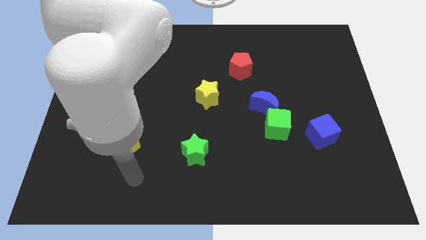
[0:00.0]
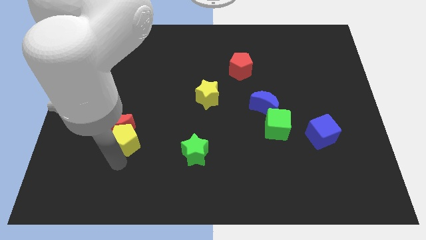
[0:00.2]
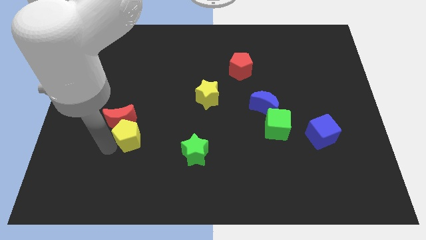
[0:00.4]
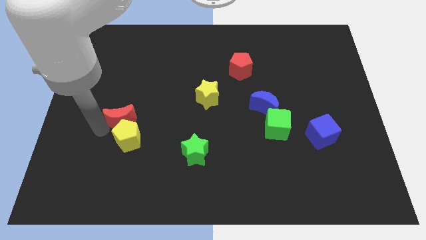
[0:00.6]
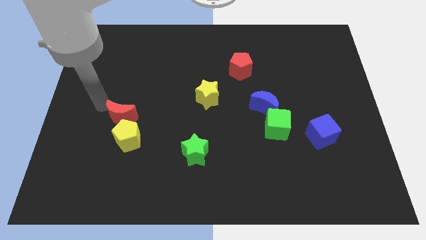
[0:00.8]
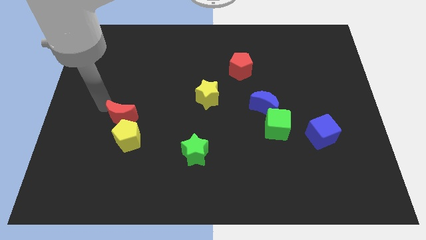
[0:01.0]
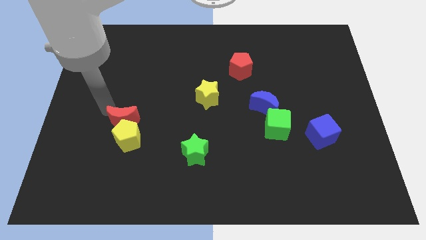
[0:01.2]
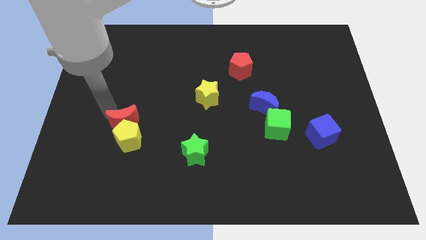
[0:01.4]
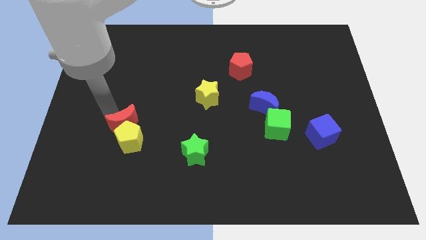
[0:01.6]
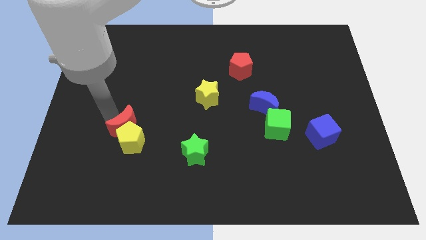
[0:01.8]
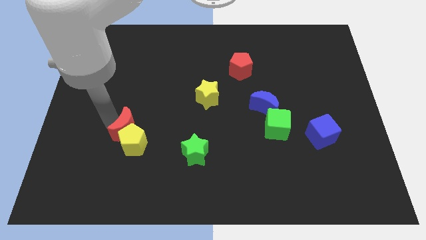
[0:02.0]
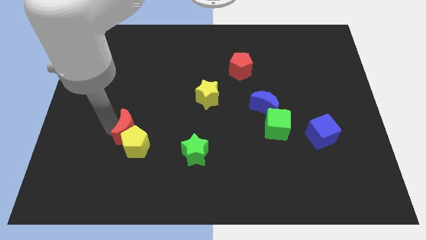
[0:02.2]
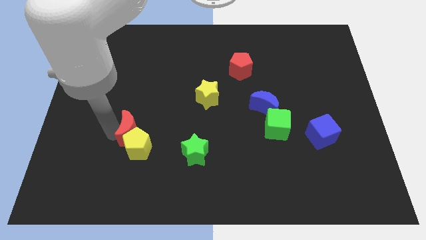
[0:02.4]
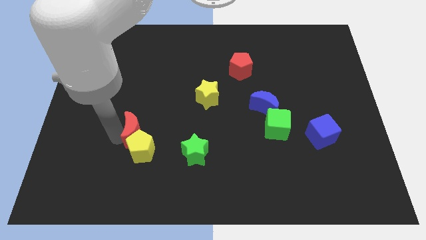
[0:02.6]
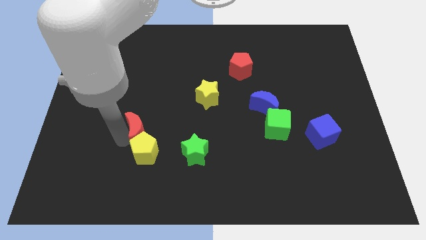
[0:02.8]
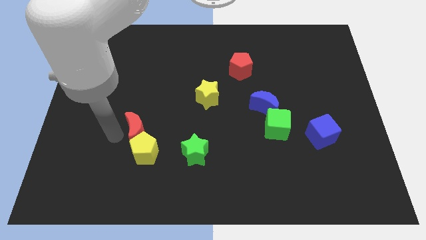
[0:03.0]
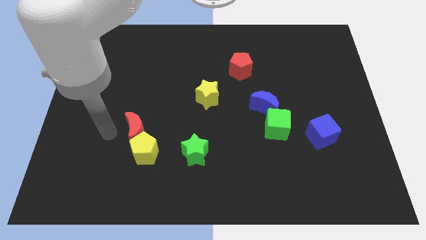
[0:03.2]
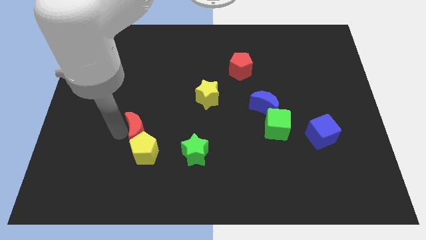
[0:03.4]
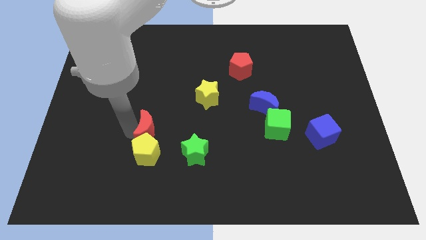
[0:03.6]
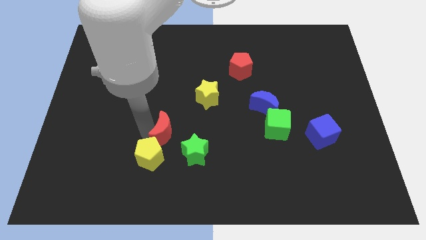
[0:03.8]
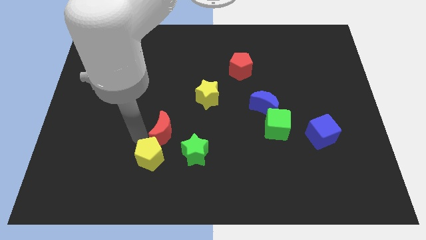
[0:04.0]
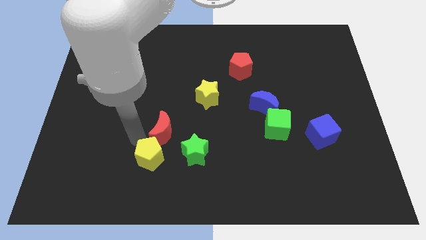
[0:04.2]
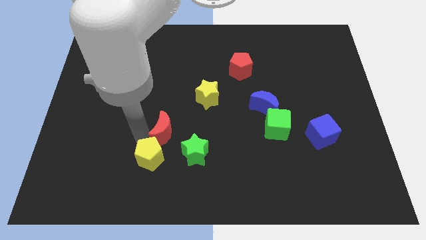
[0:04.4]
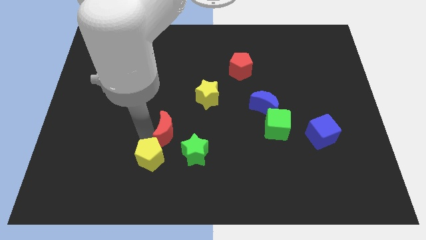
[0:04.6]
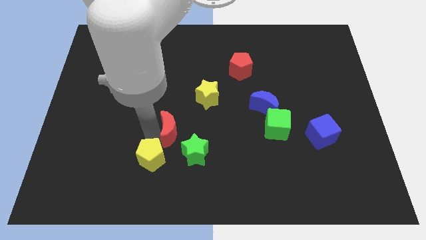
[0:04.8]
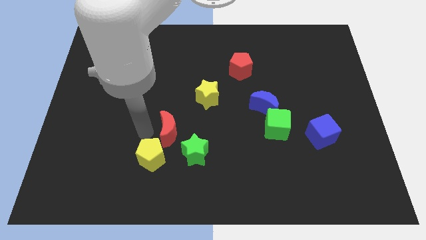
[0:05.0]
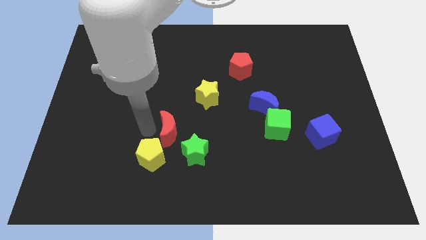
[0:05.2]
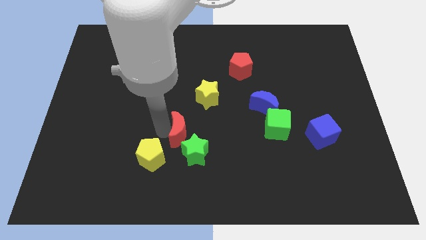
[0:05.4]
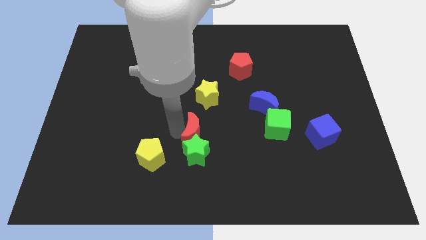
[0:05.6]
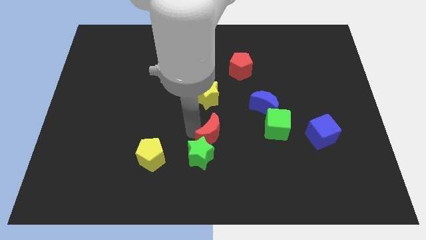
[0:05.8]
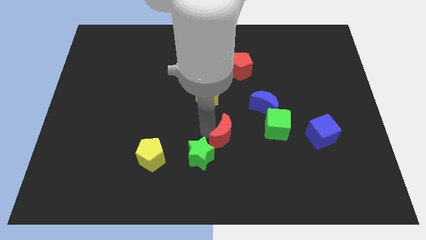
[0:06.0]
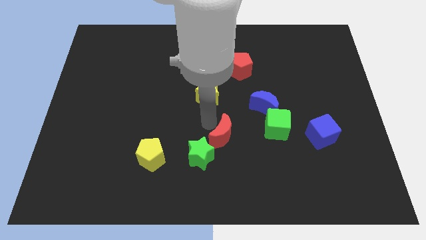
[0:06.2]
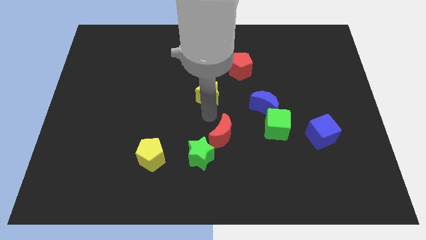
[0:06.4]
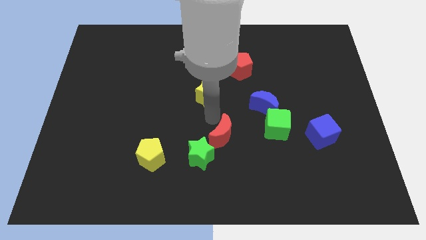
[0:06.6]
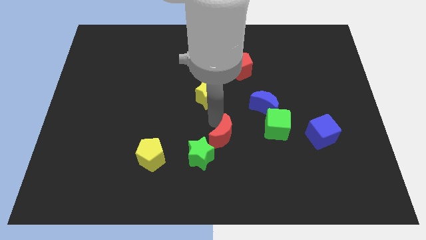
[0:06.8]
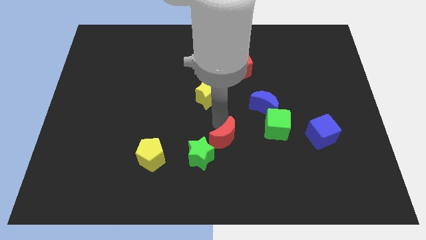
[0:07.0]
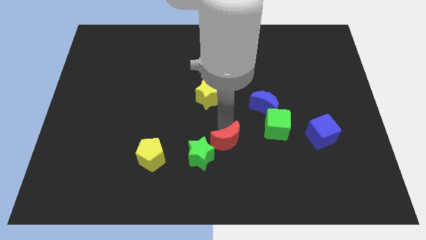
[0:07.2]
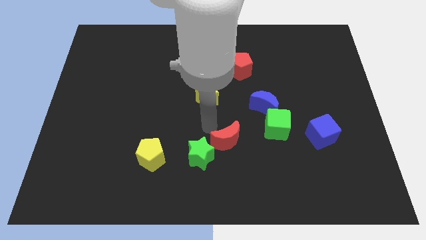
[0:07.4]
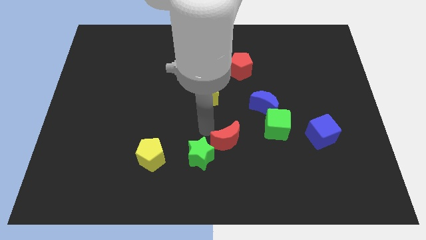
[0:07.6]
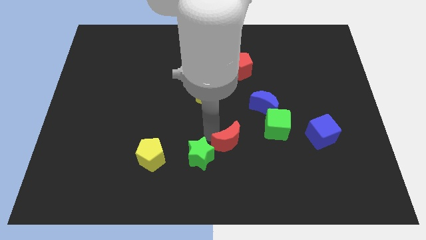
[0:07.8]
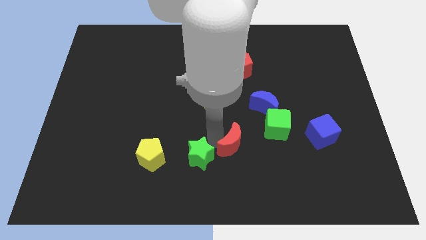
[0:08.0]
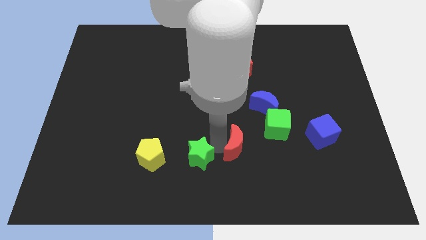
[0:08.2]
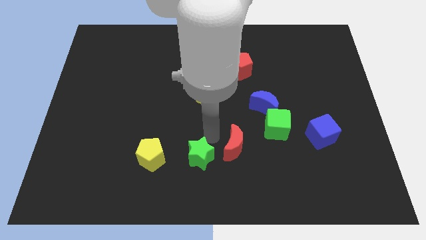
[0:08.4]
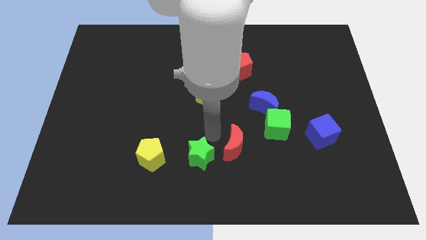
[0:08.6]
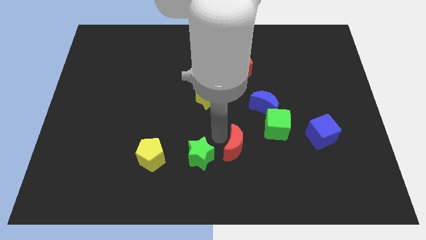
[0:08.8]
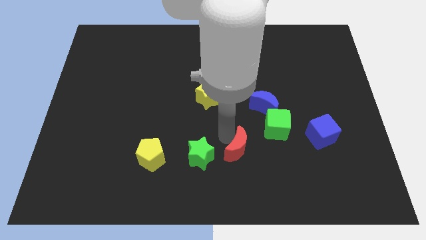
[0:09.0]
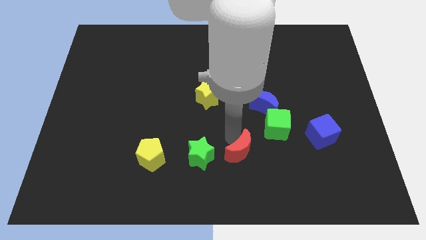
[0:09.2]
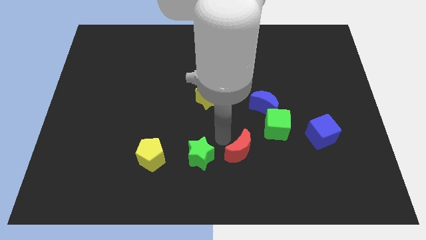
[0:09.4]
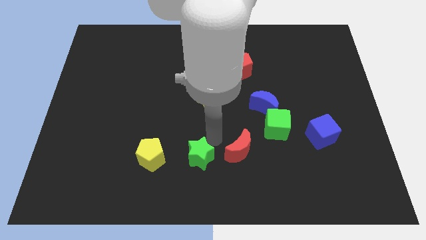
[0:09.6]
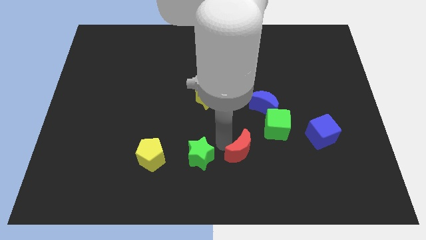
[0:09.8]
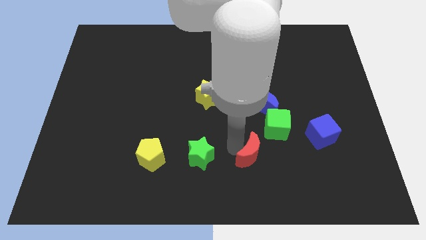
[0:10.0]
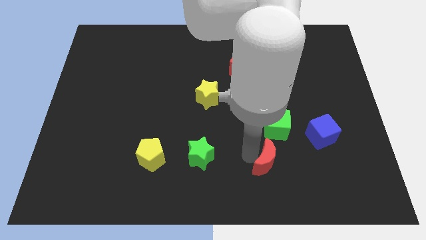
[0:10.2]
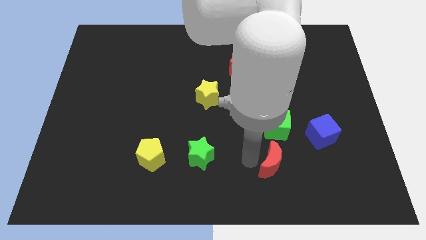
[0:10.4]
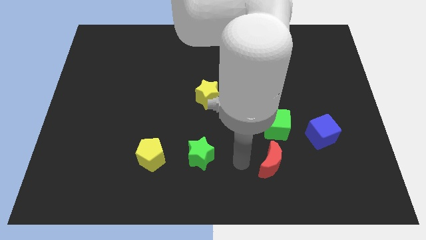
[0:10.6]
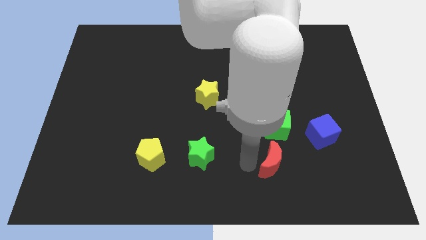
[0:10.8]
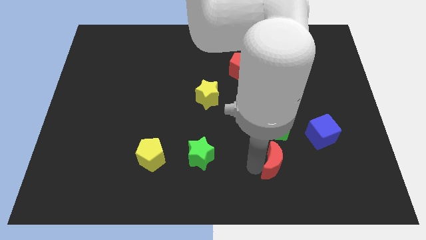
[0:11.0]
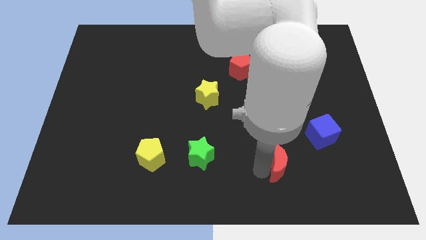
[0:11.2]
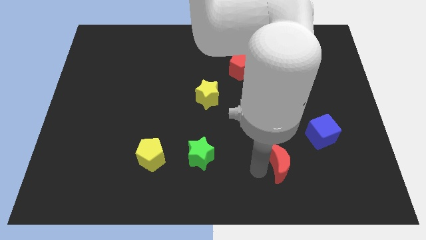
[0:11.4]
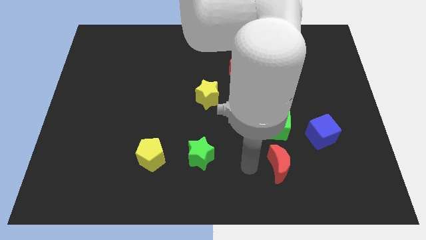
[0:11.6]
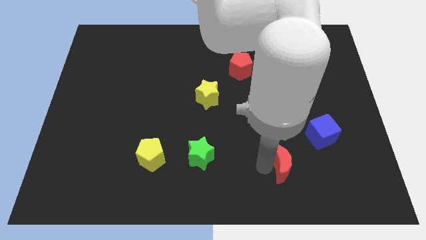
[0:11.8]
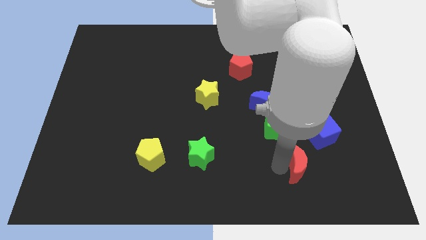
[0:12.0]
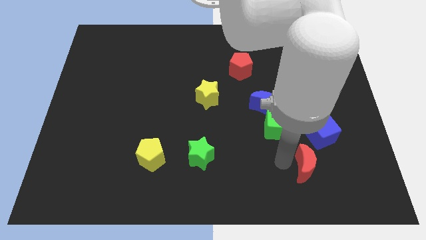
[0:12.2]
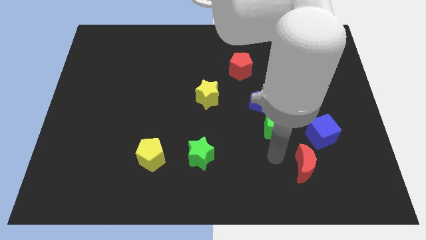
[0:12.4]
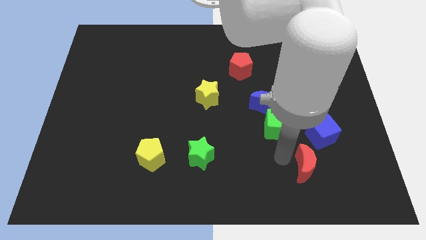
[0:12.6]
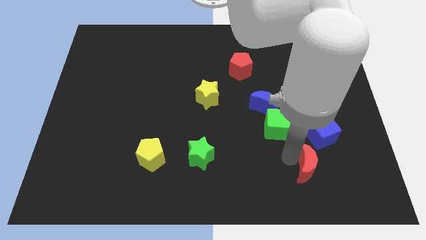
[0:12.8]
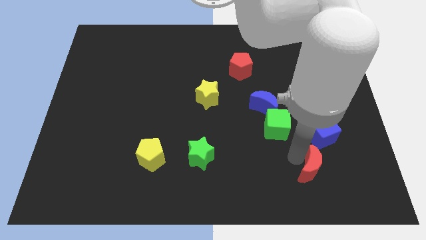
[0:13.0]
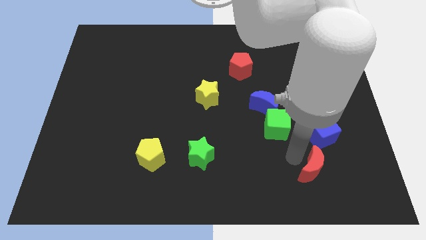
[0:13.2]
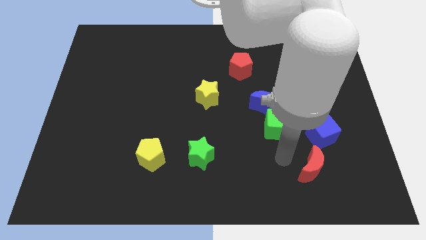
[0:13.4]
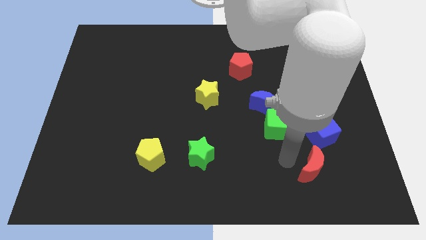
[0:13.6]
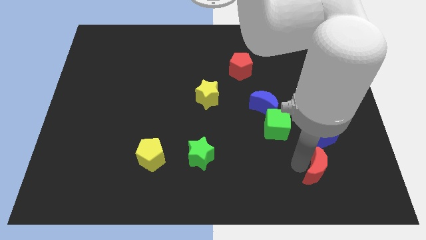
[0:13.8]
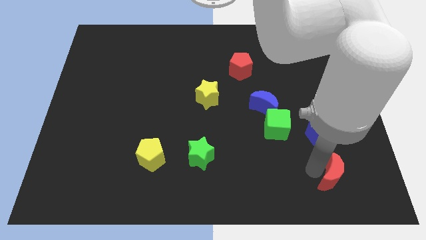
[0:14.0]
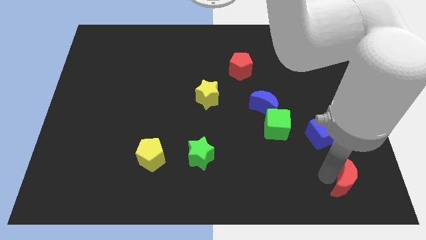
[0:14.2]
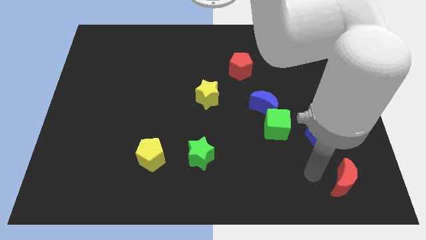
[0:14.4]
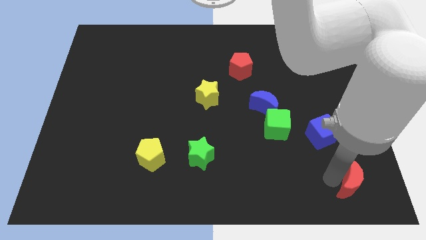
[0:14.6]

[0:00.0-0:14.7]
slide the red moon to the lower right corner
